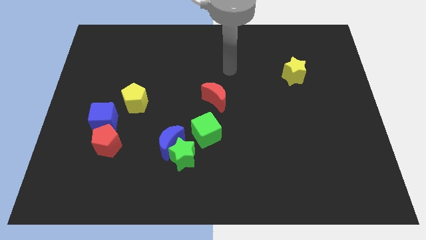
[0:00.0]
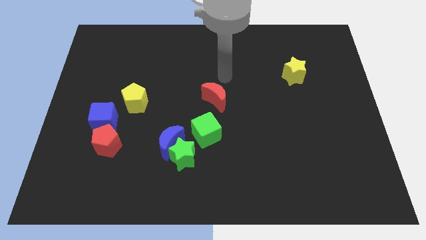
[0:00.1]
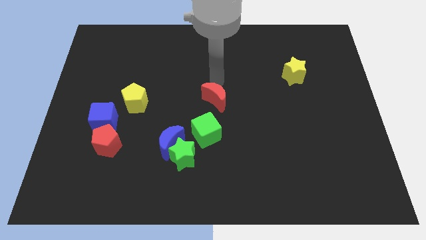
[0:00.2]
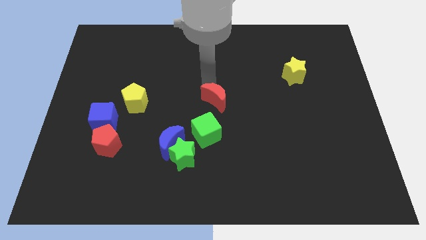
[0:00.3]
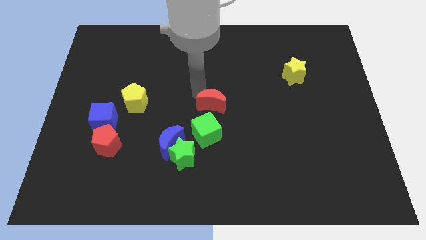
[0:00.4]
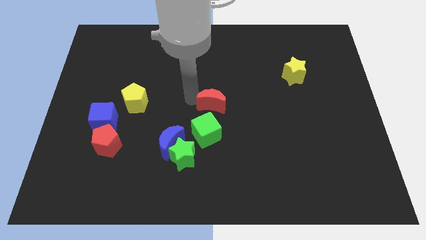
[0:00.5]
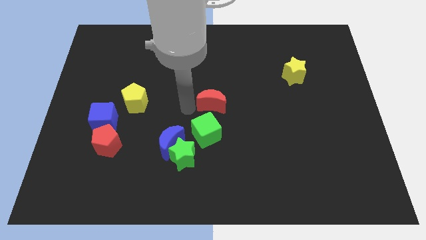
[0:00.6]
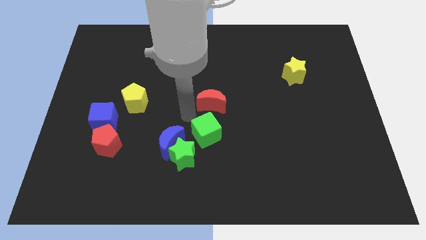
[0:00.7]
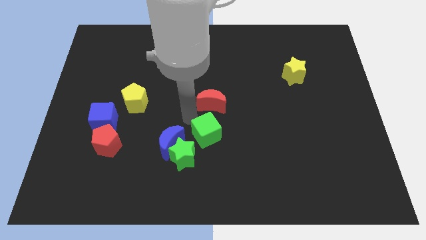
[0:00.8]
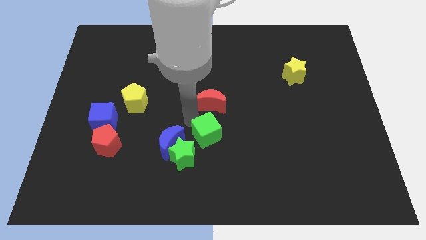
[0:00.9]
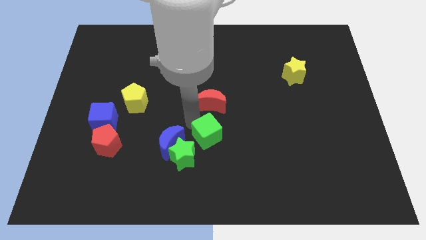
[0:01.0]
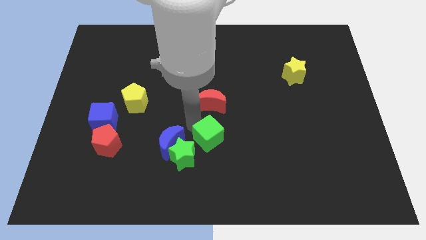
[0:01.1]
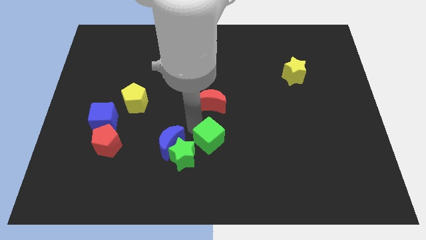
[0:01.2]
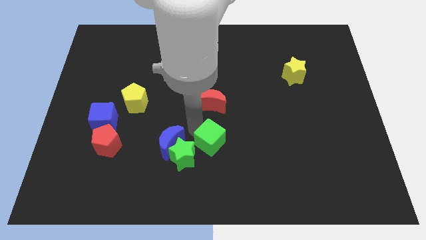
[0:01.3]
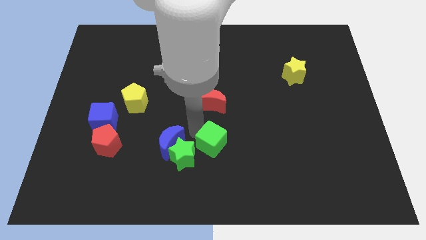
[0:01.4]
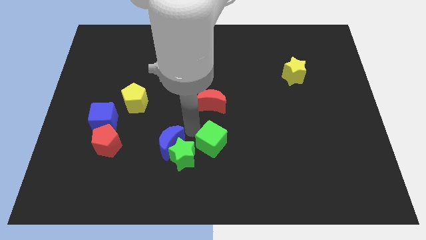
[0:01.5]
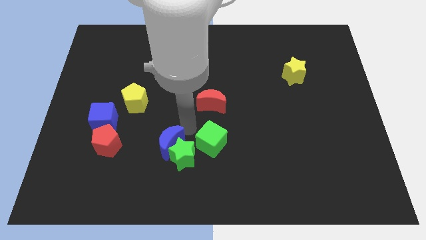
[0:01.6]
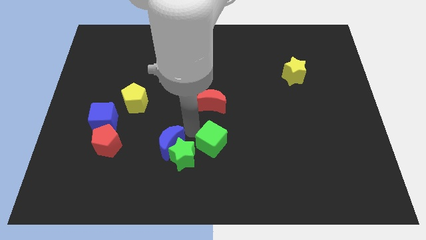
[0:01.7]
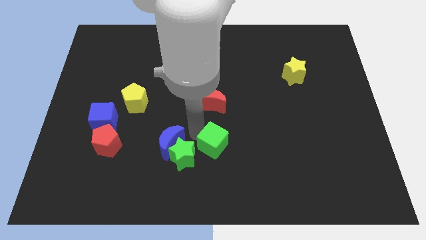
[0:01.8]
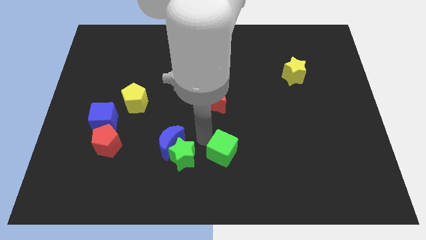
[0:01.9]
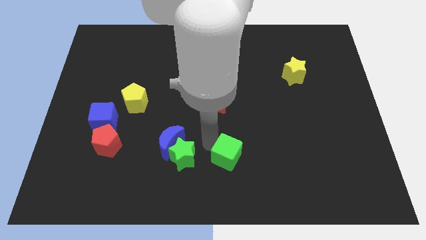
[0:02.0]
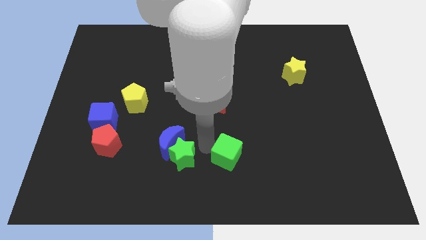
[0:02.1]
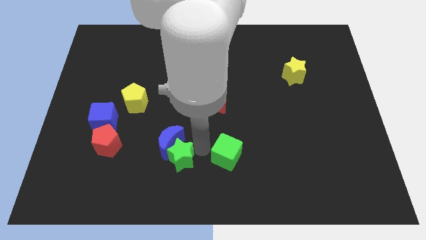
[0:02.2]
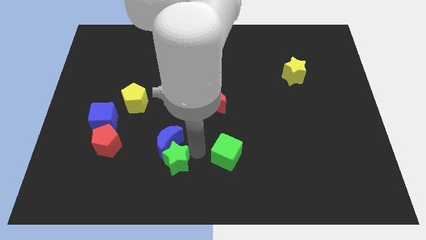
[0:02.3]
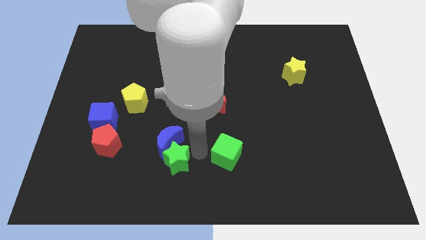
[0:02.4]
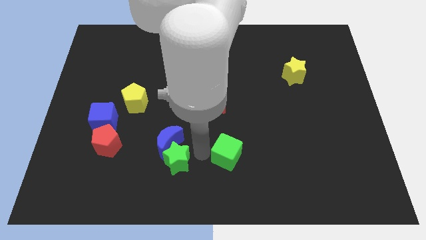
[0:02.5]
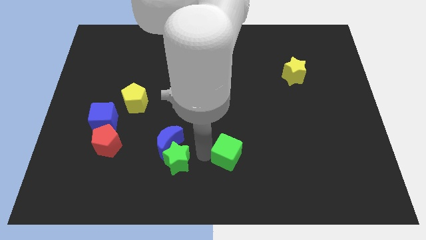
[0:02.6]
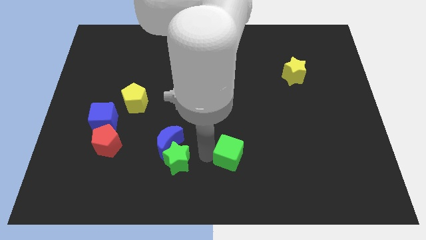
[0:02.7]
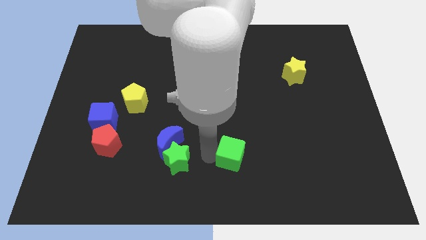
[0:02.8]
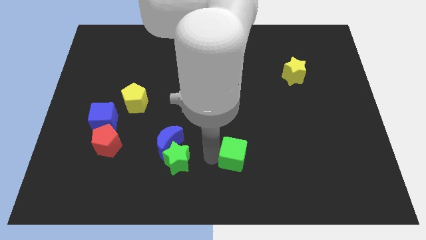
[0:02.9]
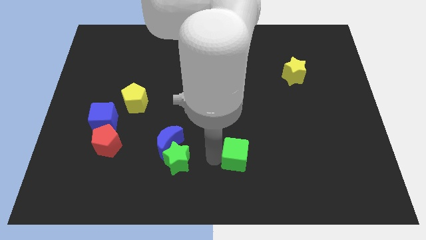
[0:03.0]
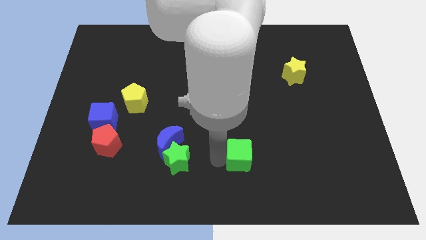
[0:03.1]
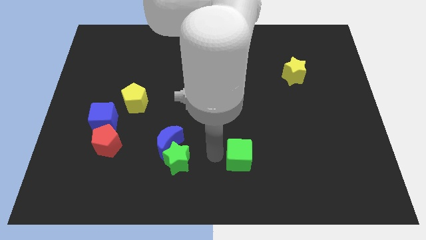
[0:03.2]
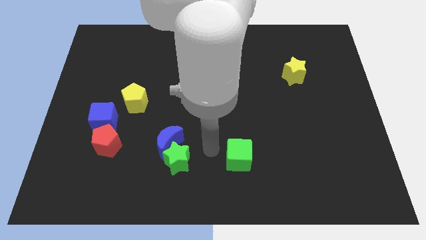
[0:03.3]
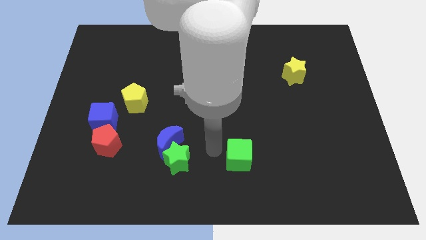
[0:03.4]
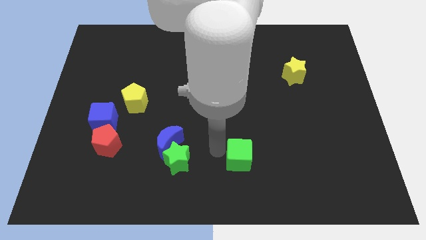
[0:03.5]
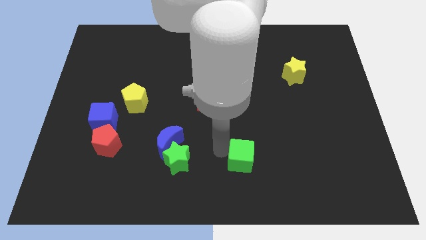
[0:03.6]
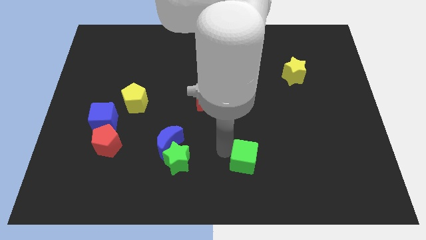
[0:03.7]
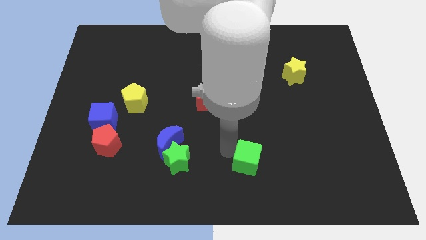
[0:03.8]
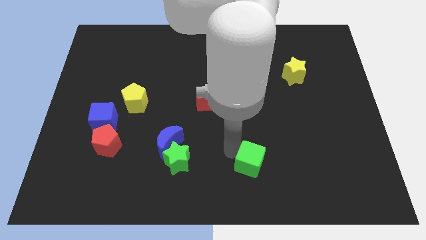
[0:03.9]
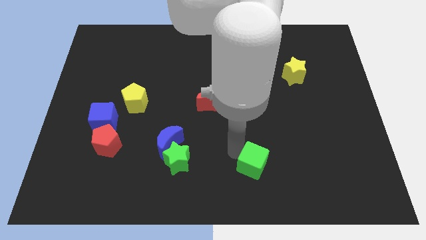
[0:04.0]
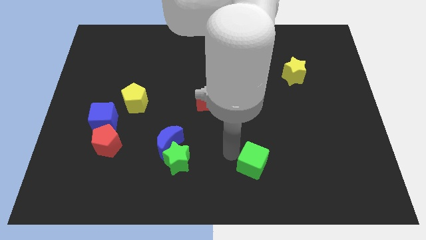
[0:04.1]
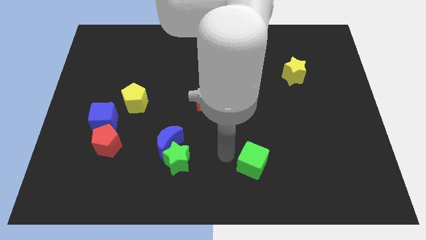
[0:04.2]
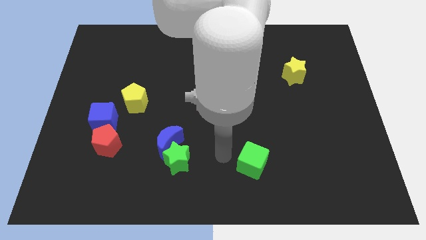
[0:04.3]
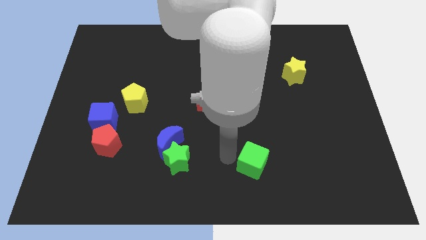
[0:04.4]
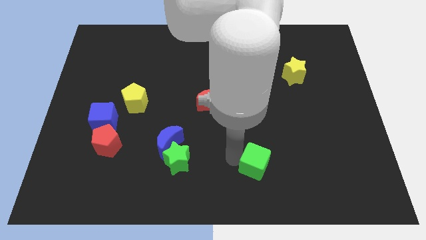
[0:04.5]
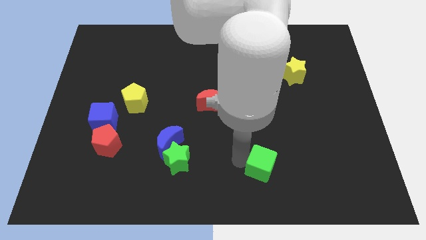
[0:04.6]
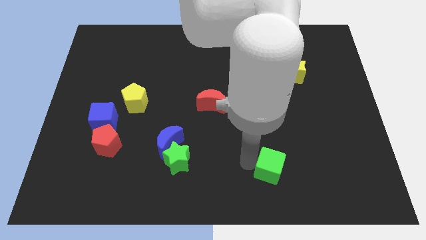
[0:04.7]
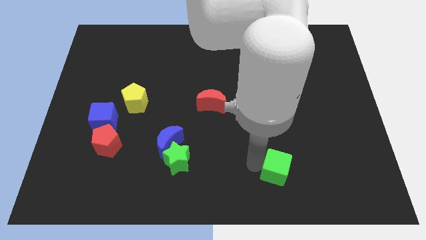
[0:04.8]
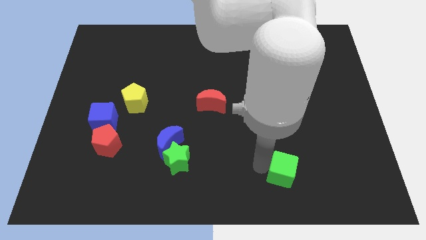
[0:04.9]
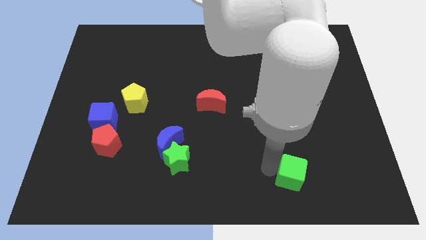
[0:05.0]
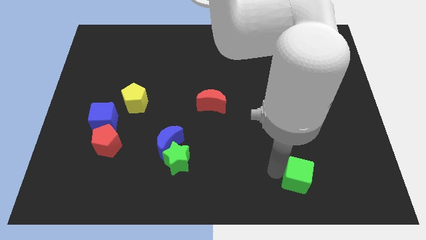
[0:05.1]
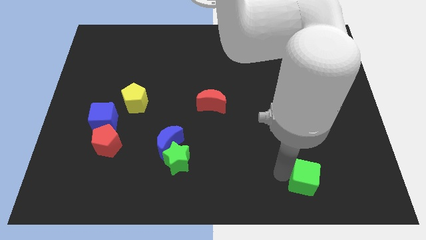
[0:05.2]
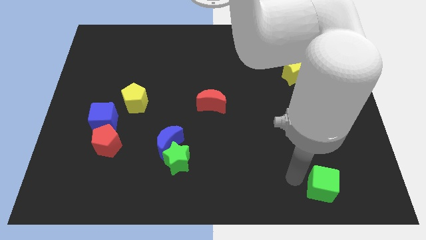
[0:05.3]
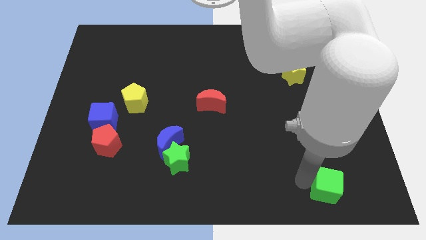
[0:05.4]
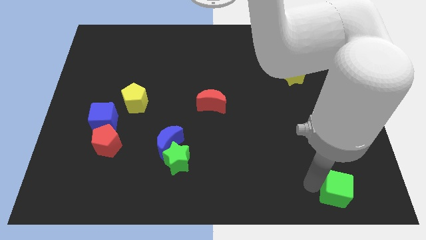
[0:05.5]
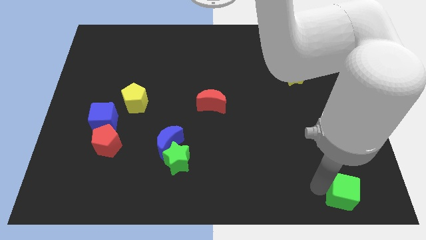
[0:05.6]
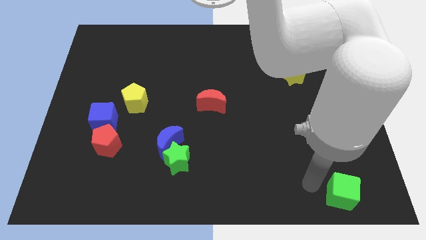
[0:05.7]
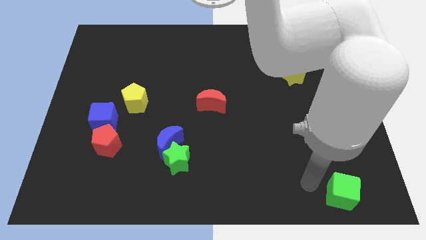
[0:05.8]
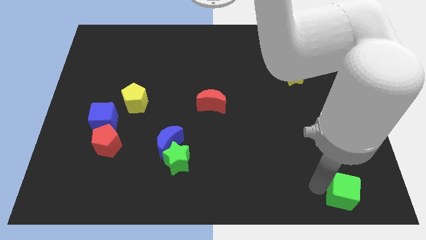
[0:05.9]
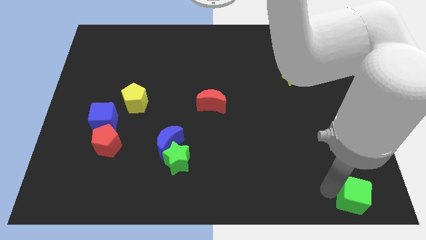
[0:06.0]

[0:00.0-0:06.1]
push the green cube to the bottom right

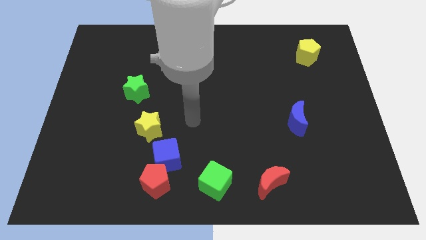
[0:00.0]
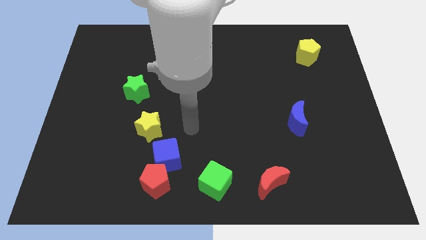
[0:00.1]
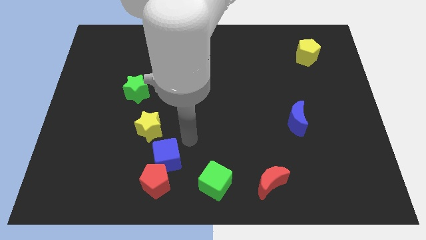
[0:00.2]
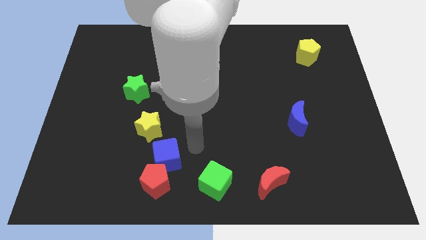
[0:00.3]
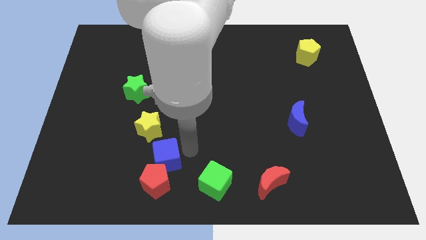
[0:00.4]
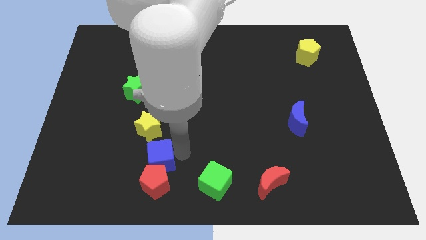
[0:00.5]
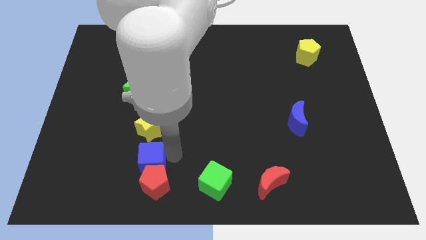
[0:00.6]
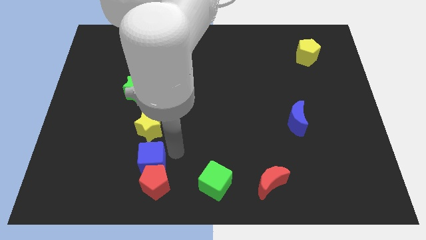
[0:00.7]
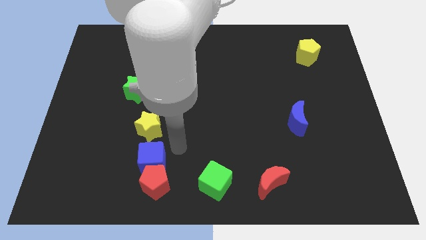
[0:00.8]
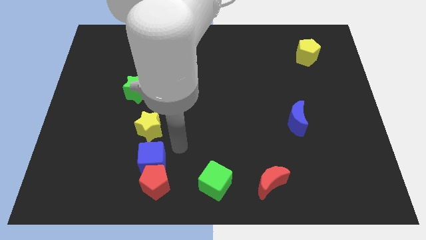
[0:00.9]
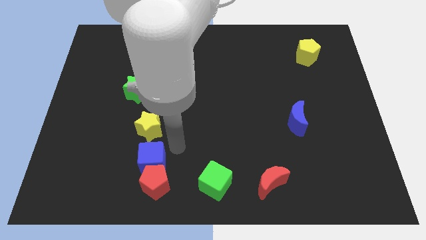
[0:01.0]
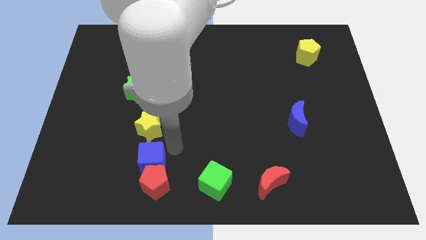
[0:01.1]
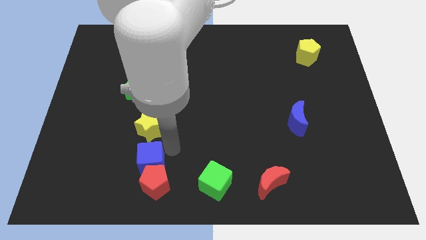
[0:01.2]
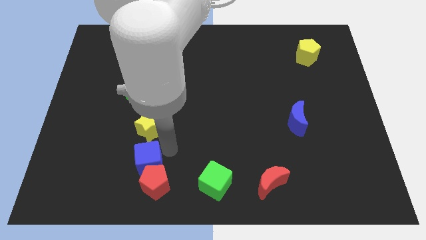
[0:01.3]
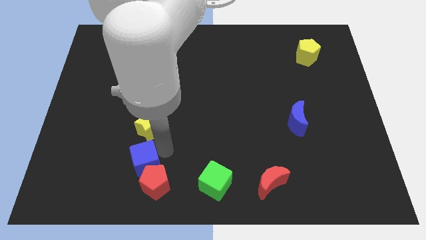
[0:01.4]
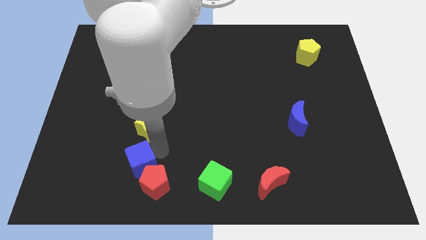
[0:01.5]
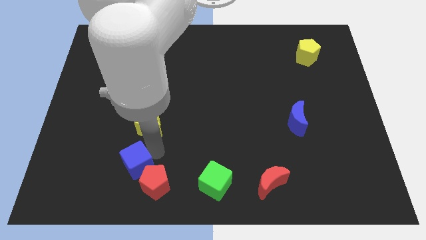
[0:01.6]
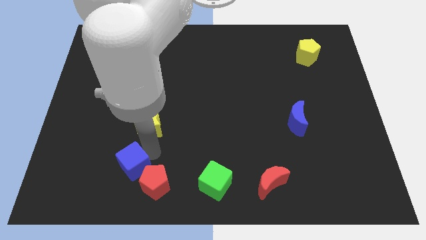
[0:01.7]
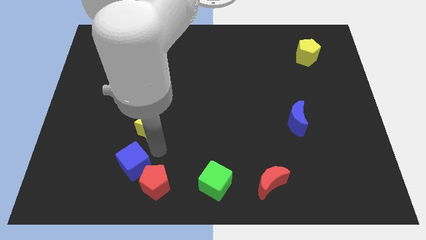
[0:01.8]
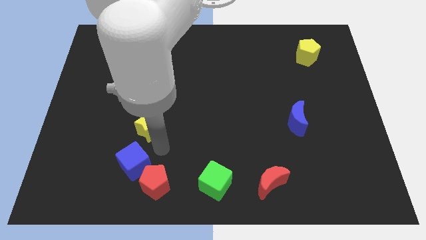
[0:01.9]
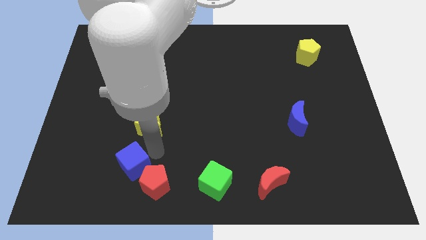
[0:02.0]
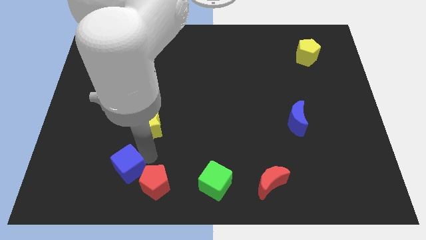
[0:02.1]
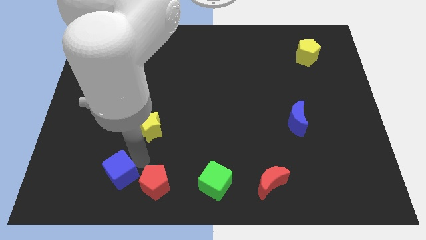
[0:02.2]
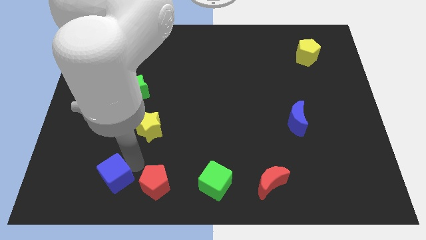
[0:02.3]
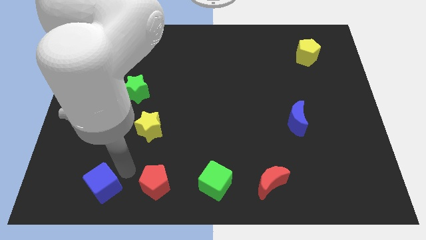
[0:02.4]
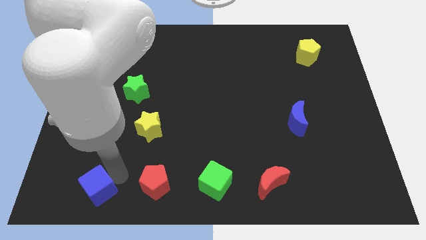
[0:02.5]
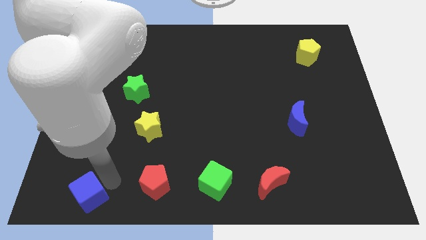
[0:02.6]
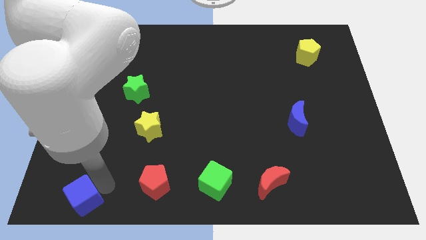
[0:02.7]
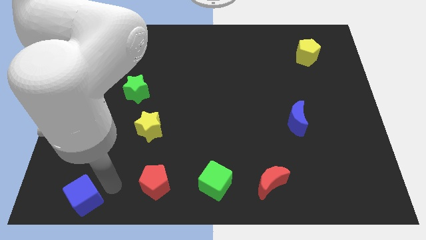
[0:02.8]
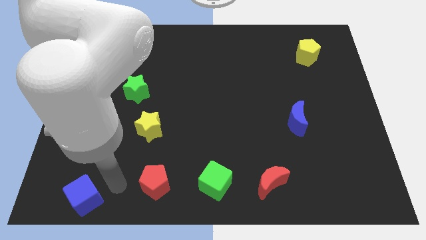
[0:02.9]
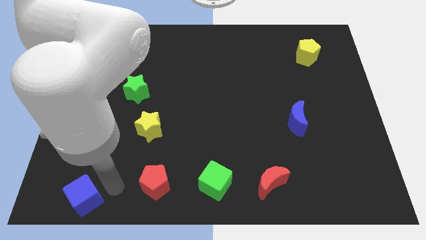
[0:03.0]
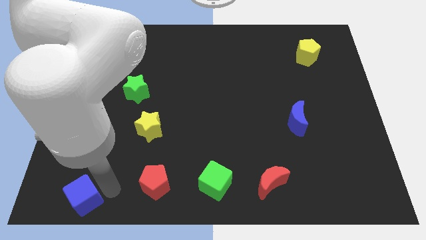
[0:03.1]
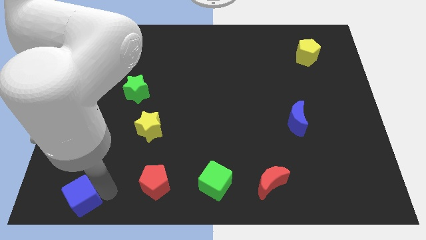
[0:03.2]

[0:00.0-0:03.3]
slide the blue cube to the bottom left
